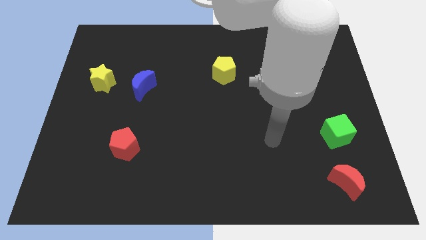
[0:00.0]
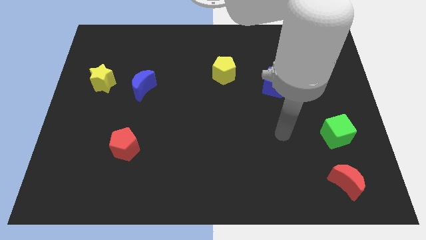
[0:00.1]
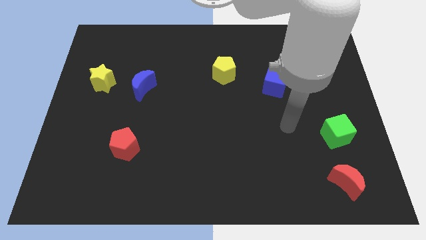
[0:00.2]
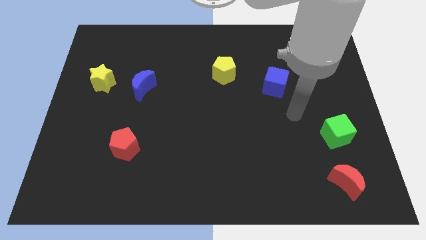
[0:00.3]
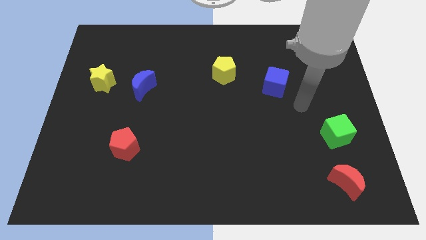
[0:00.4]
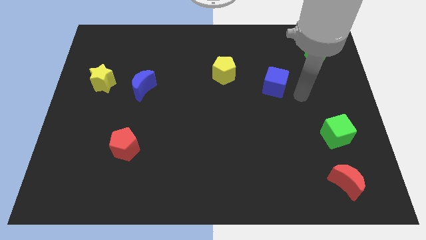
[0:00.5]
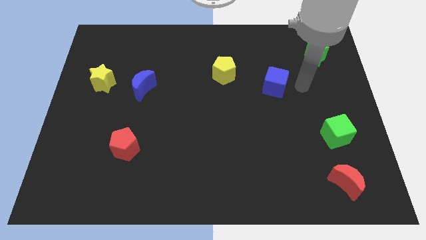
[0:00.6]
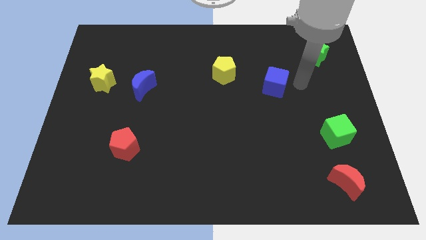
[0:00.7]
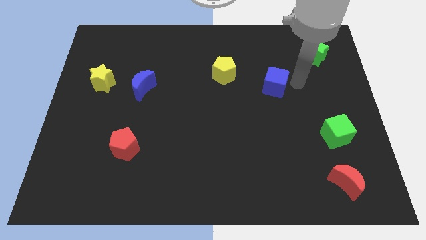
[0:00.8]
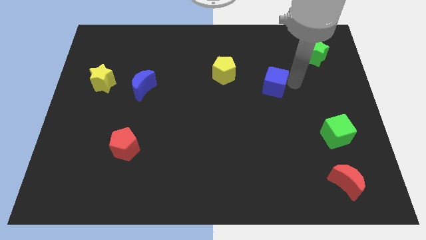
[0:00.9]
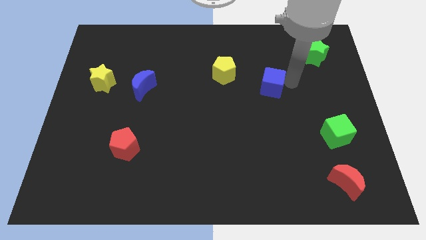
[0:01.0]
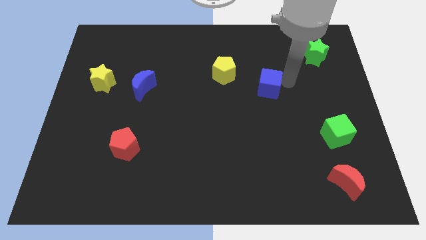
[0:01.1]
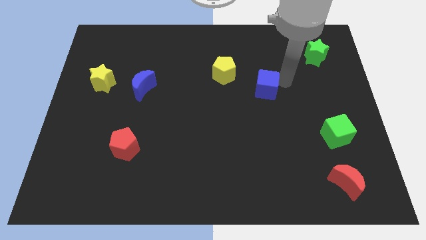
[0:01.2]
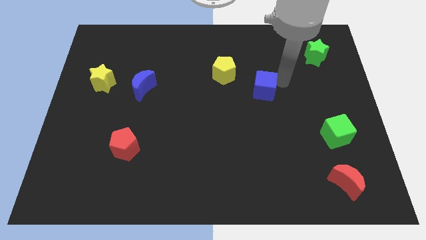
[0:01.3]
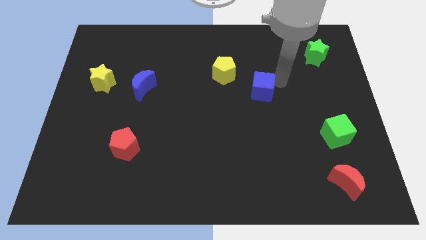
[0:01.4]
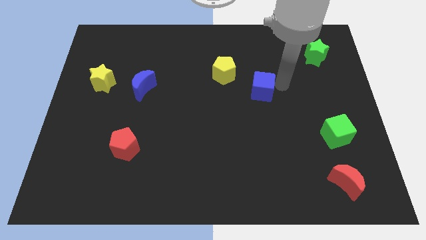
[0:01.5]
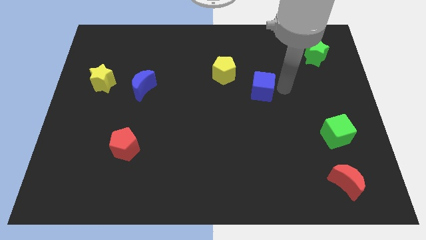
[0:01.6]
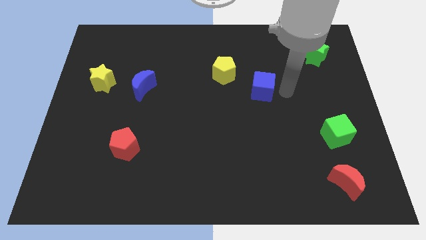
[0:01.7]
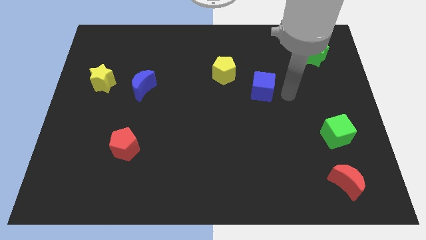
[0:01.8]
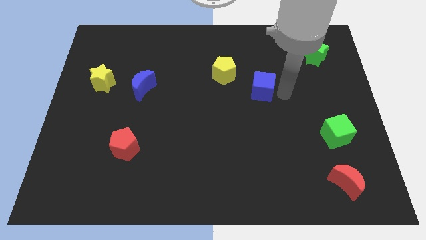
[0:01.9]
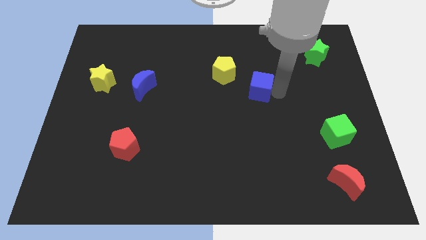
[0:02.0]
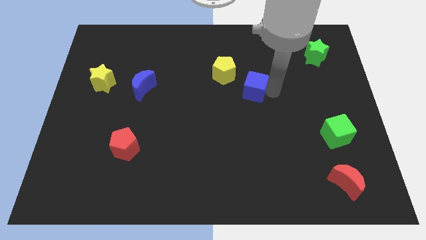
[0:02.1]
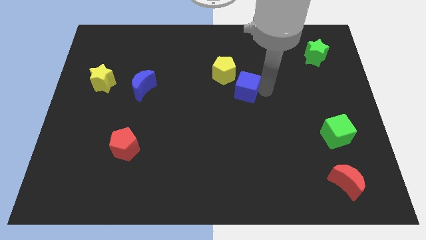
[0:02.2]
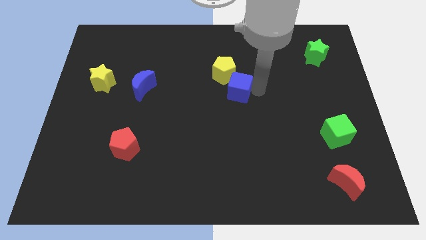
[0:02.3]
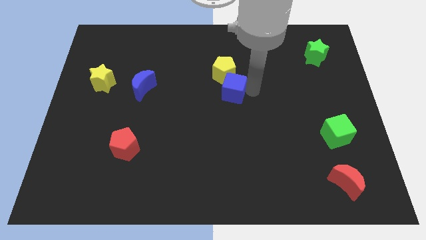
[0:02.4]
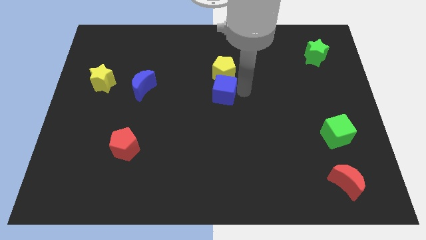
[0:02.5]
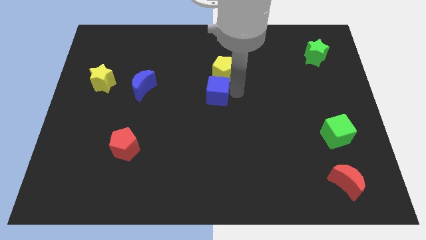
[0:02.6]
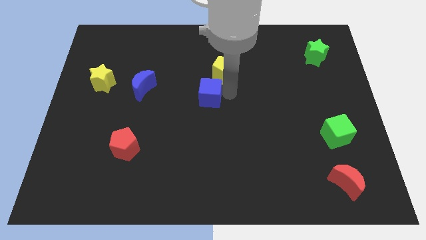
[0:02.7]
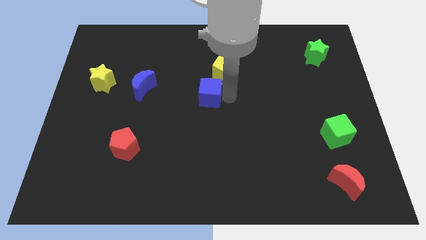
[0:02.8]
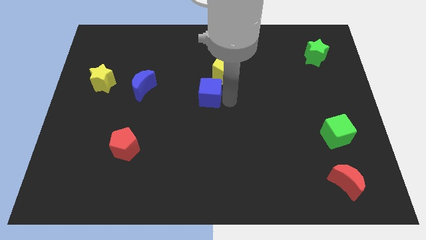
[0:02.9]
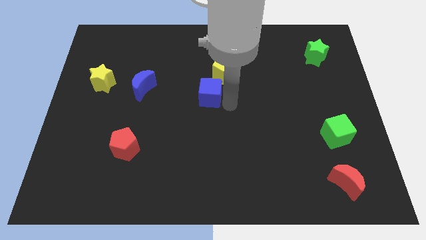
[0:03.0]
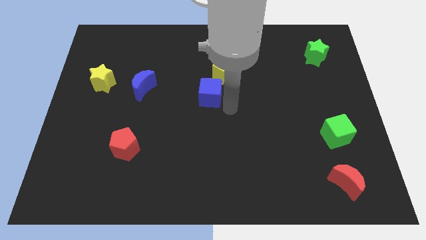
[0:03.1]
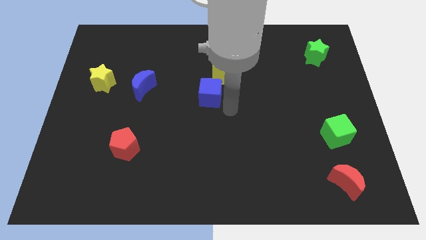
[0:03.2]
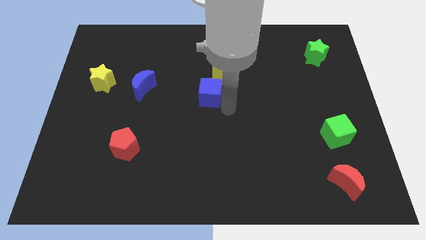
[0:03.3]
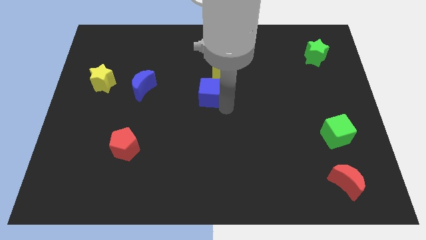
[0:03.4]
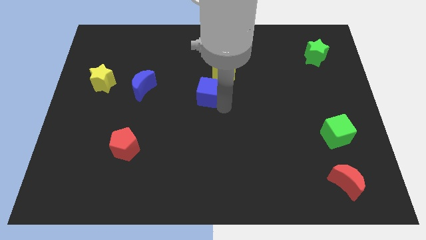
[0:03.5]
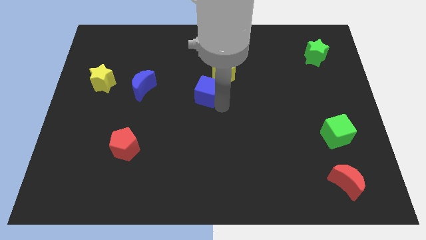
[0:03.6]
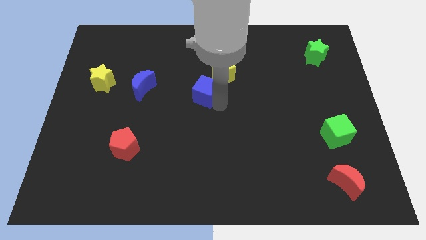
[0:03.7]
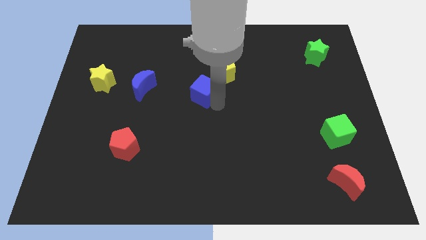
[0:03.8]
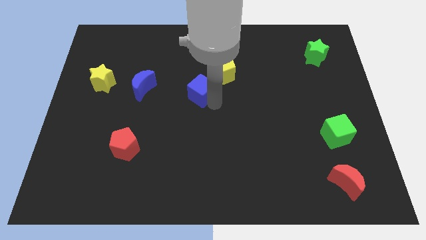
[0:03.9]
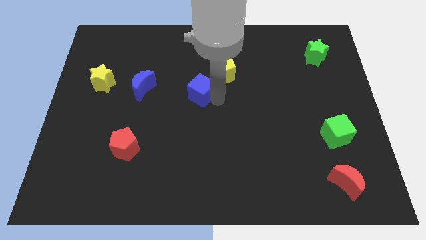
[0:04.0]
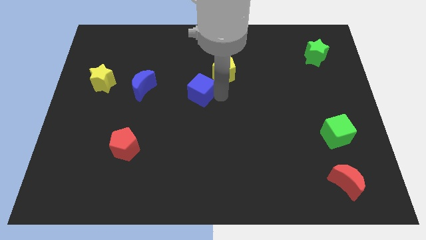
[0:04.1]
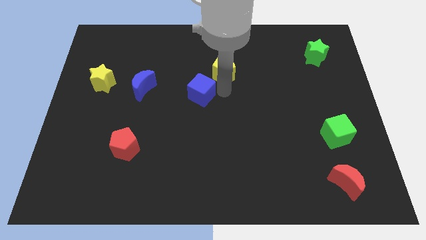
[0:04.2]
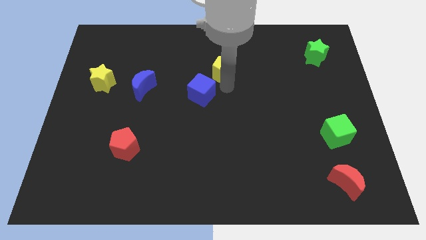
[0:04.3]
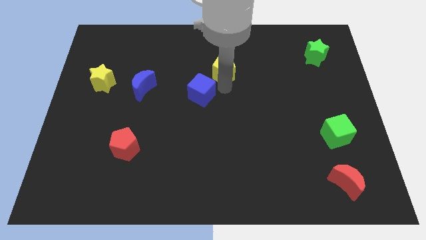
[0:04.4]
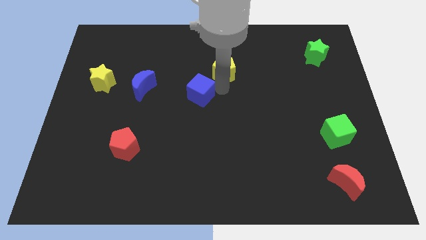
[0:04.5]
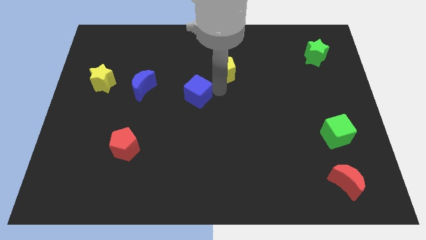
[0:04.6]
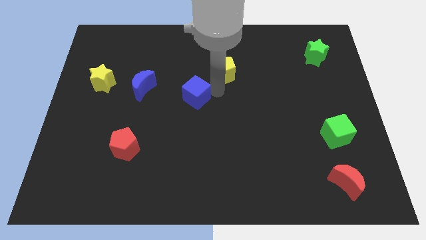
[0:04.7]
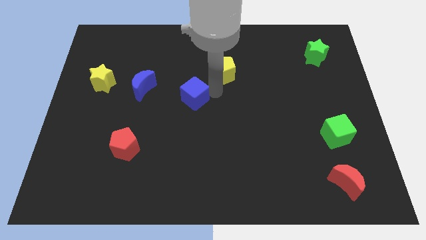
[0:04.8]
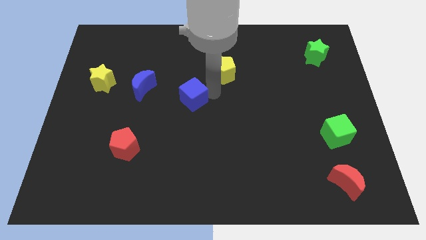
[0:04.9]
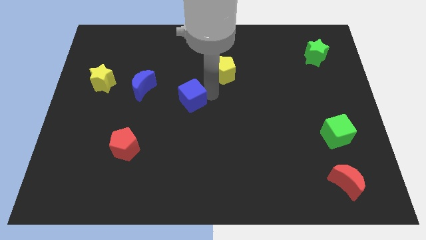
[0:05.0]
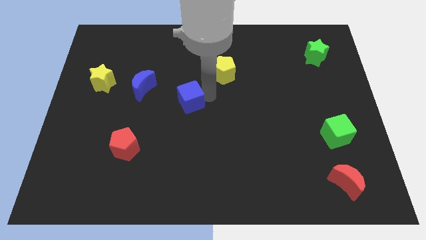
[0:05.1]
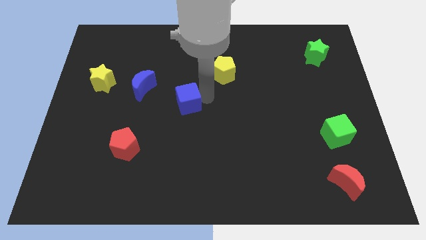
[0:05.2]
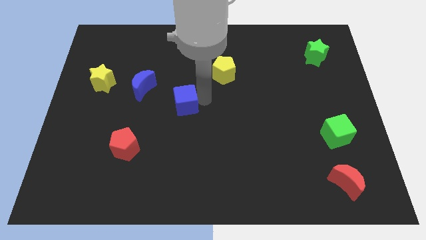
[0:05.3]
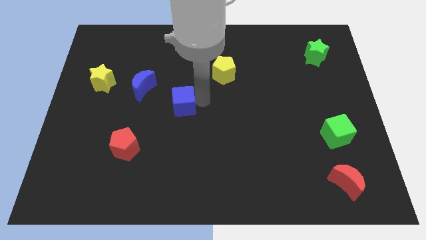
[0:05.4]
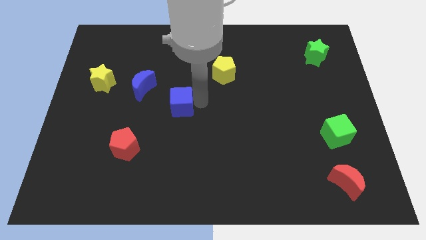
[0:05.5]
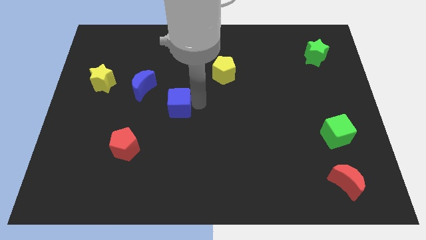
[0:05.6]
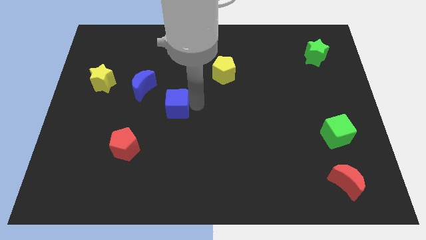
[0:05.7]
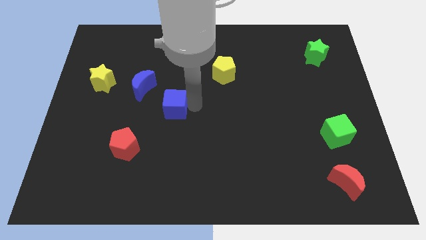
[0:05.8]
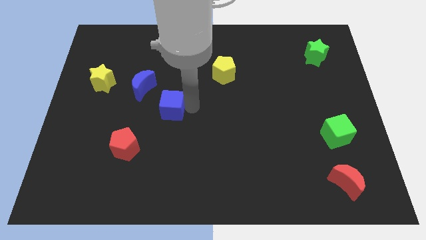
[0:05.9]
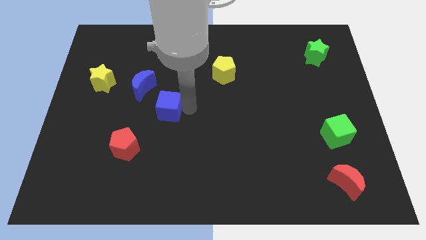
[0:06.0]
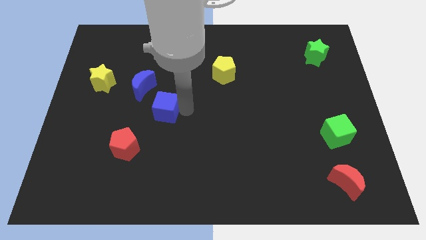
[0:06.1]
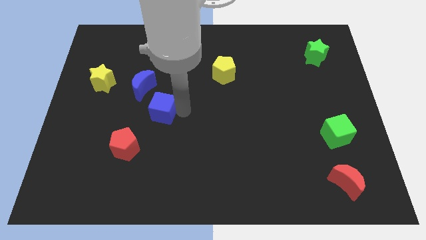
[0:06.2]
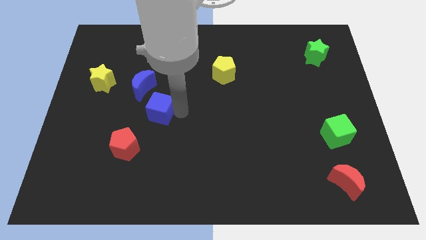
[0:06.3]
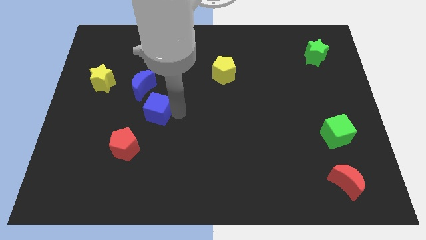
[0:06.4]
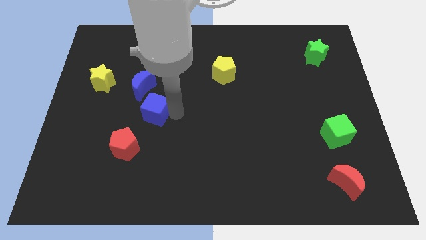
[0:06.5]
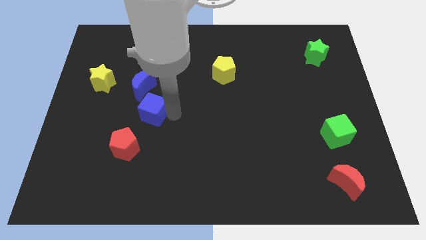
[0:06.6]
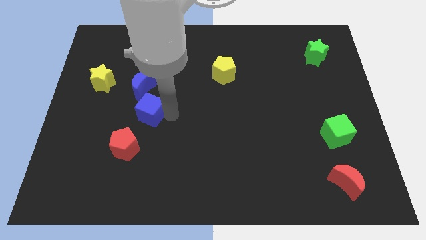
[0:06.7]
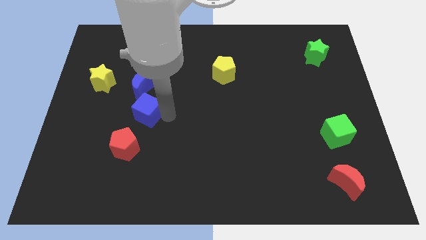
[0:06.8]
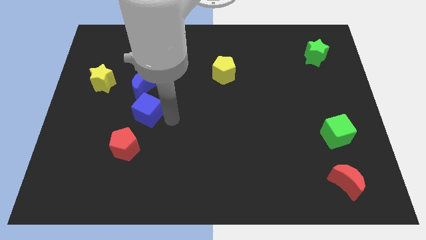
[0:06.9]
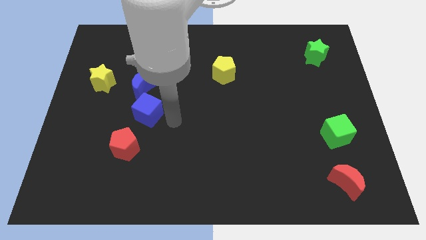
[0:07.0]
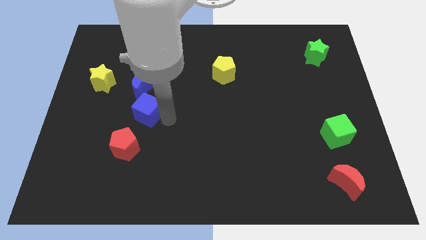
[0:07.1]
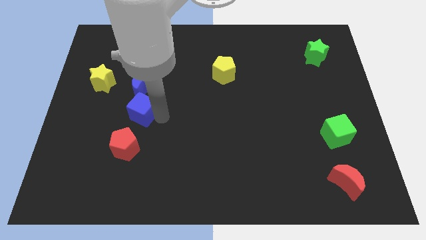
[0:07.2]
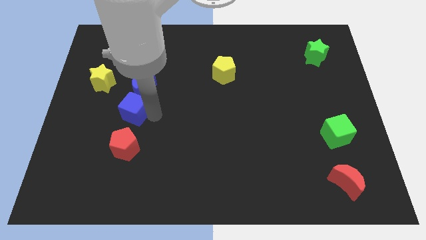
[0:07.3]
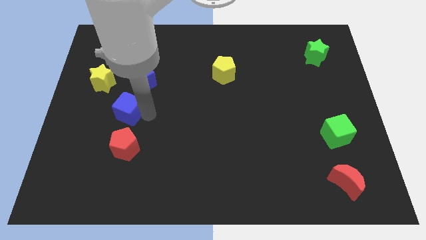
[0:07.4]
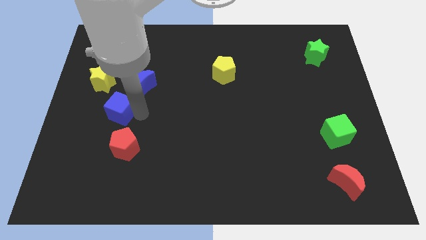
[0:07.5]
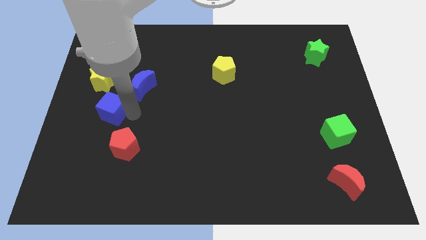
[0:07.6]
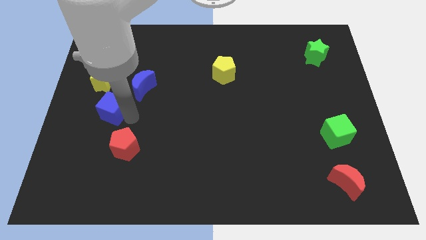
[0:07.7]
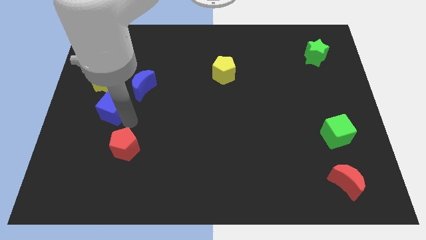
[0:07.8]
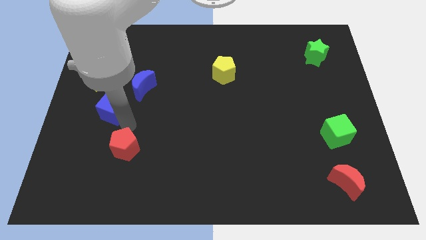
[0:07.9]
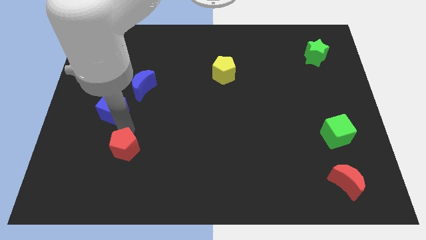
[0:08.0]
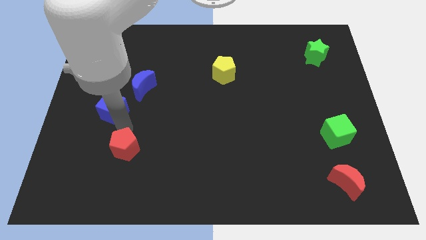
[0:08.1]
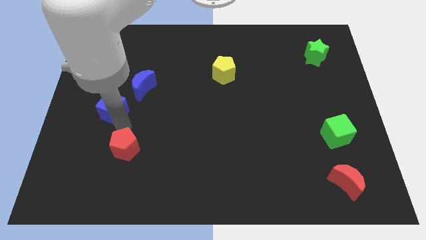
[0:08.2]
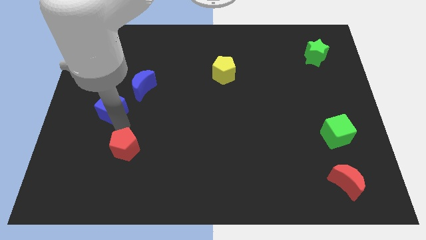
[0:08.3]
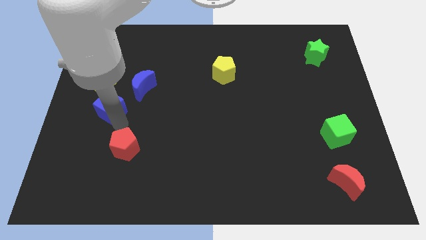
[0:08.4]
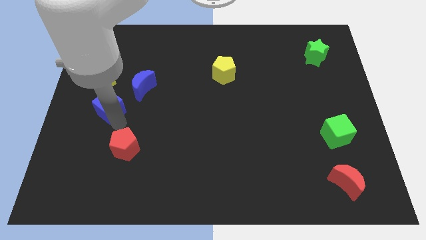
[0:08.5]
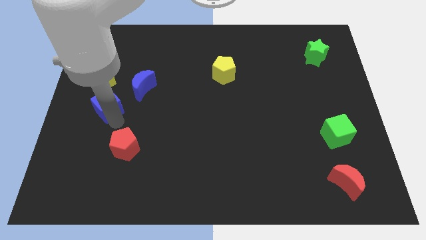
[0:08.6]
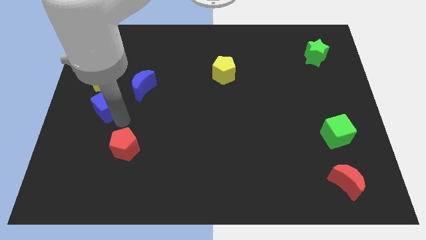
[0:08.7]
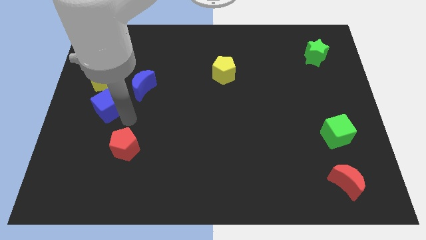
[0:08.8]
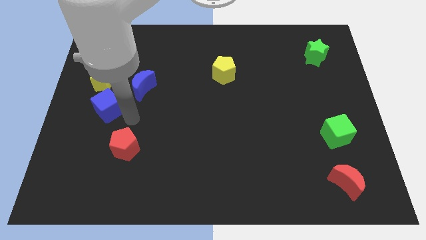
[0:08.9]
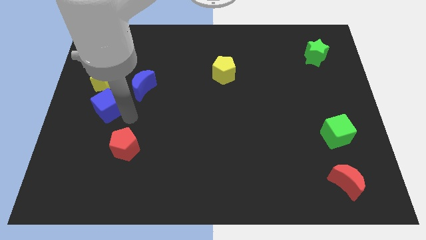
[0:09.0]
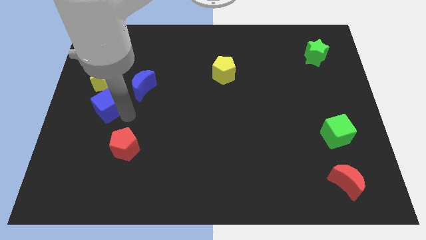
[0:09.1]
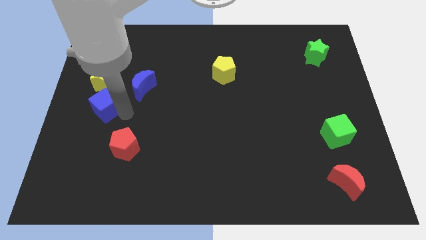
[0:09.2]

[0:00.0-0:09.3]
slide the blue cube to the left side
